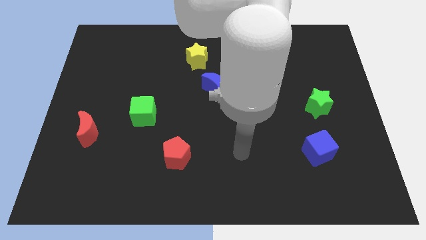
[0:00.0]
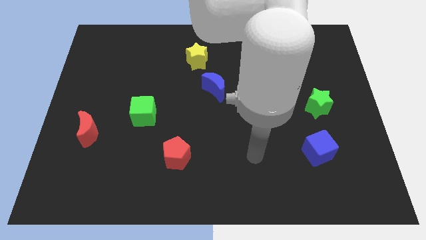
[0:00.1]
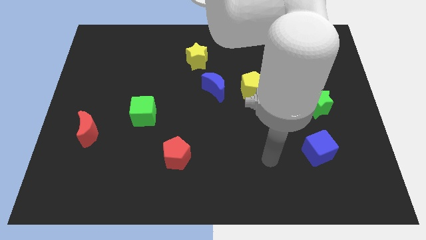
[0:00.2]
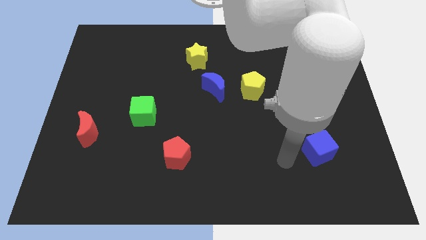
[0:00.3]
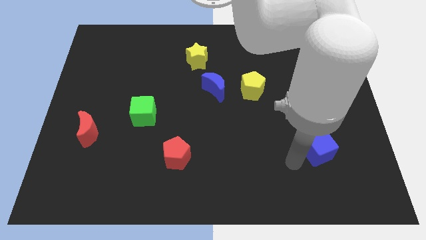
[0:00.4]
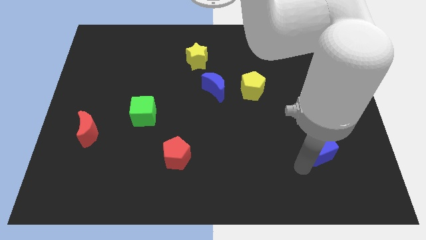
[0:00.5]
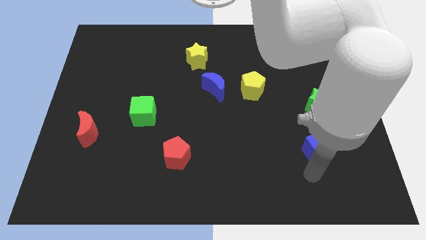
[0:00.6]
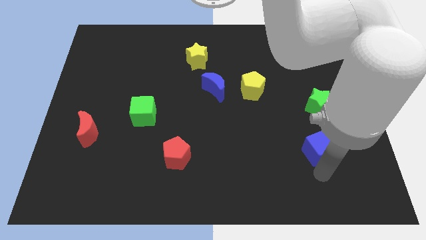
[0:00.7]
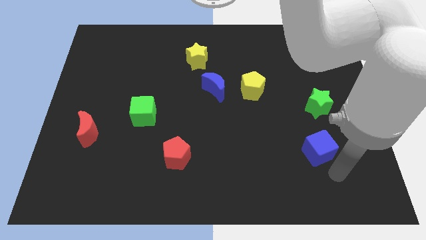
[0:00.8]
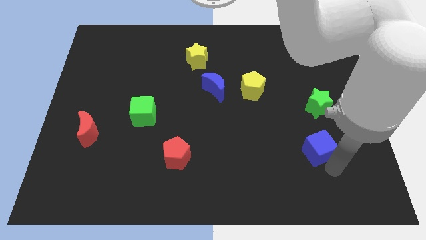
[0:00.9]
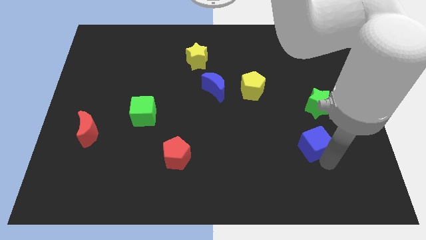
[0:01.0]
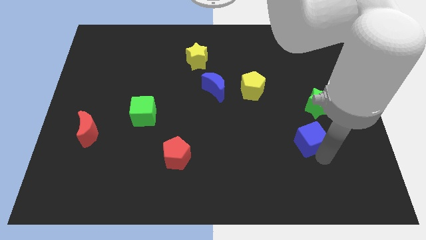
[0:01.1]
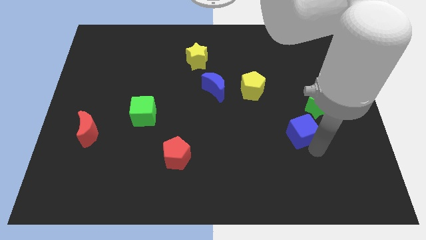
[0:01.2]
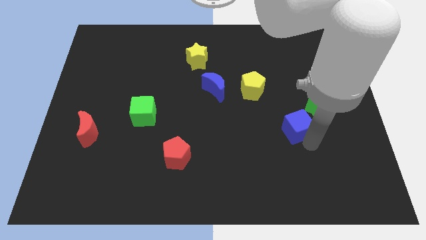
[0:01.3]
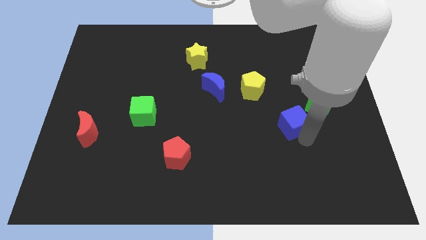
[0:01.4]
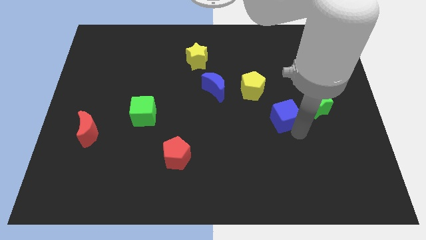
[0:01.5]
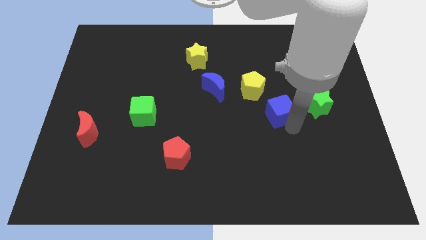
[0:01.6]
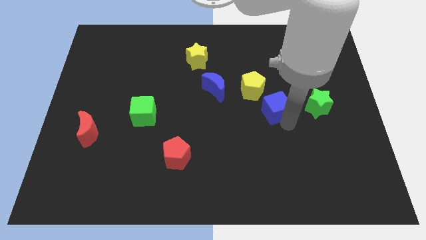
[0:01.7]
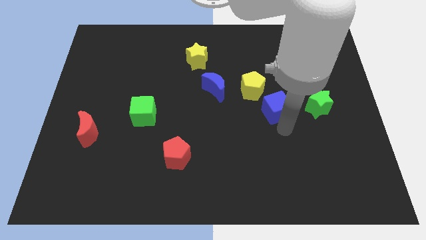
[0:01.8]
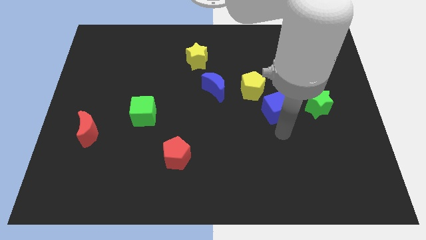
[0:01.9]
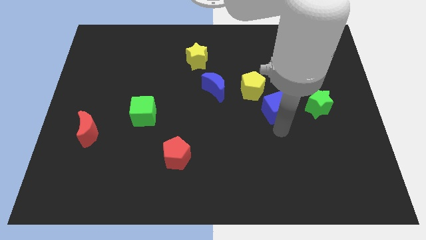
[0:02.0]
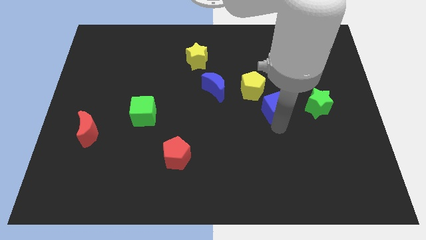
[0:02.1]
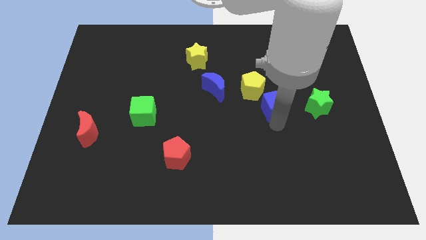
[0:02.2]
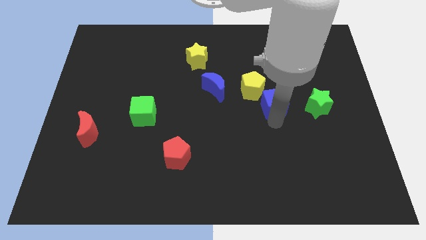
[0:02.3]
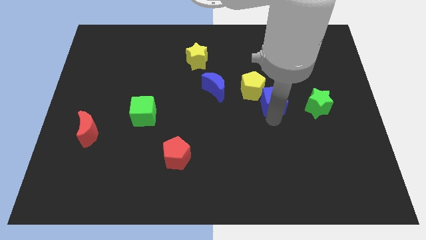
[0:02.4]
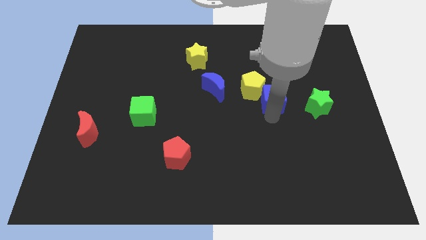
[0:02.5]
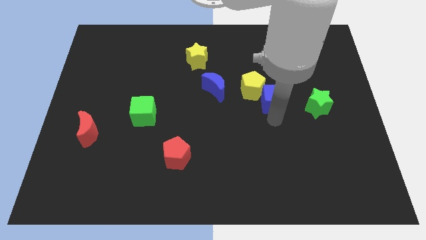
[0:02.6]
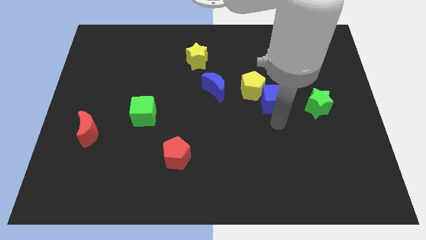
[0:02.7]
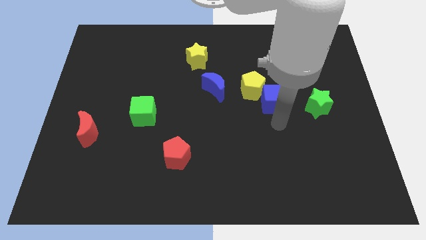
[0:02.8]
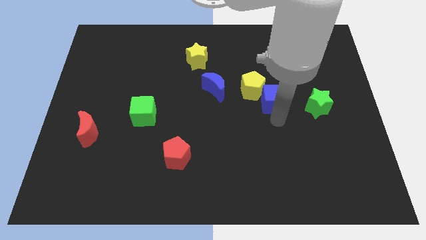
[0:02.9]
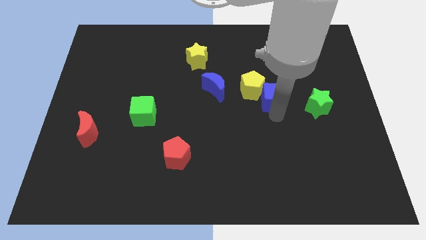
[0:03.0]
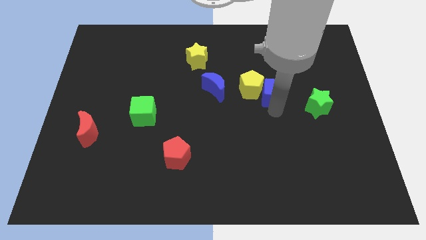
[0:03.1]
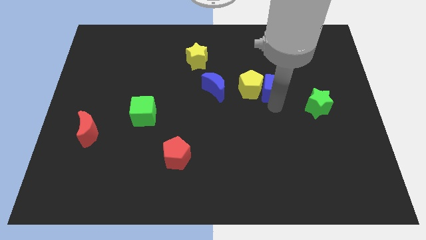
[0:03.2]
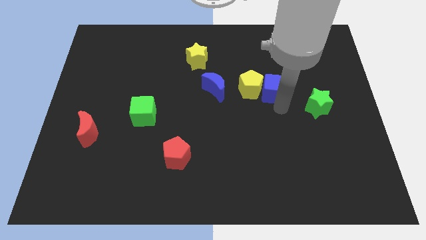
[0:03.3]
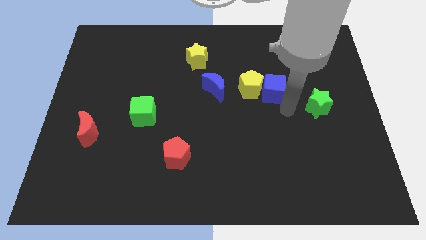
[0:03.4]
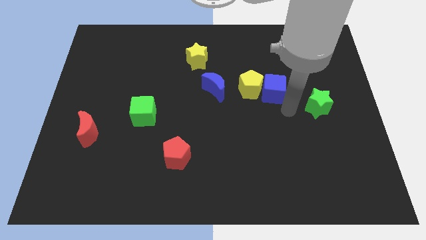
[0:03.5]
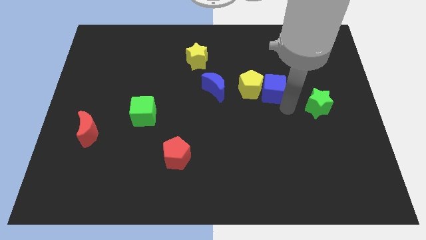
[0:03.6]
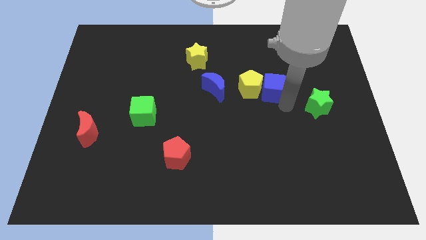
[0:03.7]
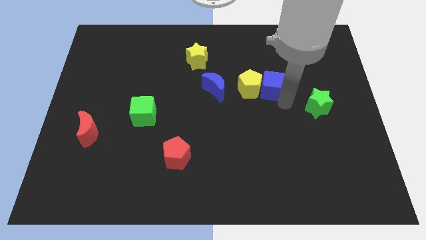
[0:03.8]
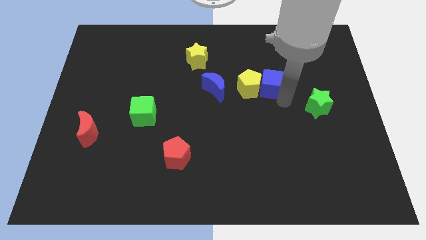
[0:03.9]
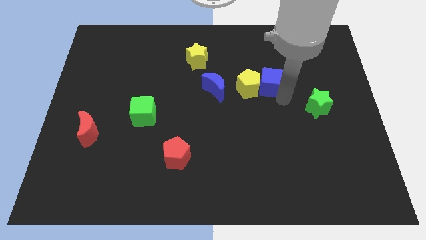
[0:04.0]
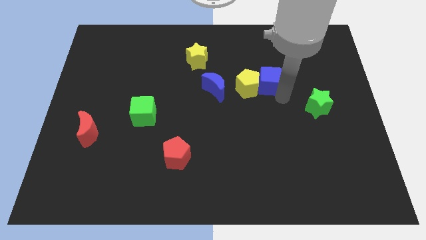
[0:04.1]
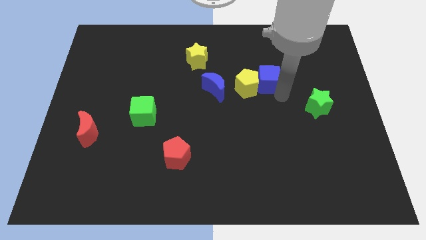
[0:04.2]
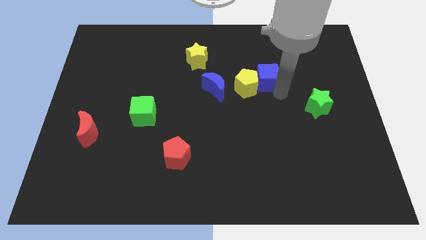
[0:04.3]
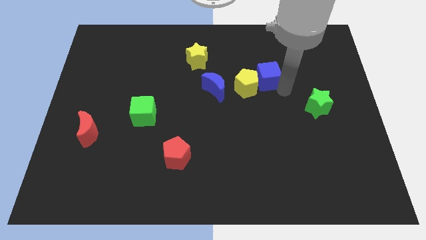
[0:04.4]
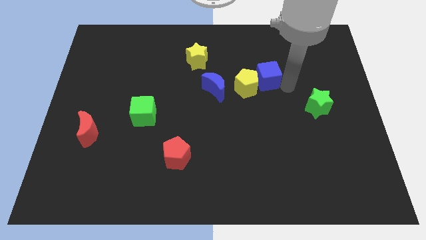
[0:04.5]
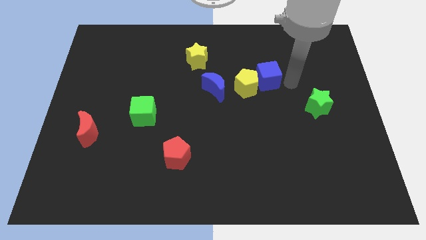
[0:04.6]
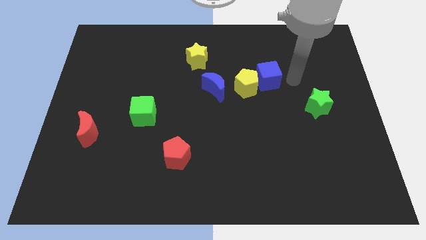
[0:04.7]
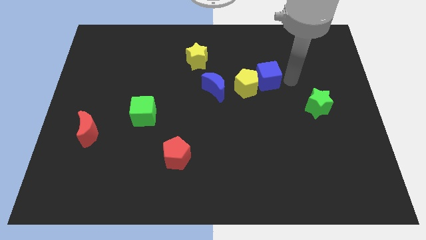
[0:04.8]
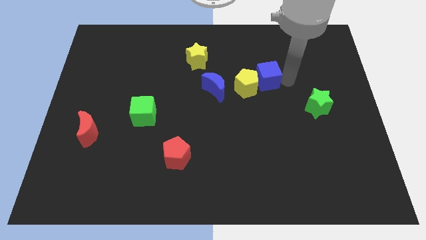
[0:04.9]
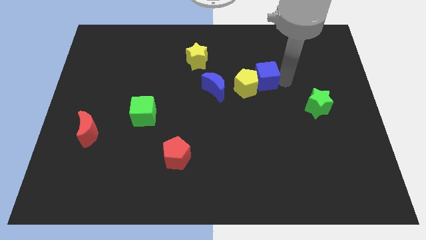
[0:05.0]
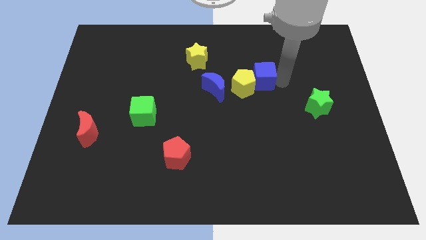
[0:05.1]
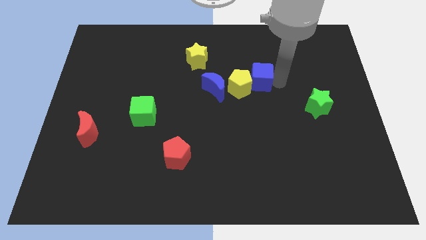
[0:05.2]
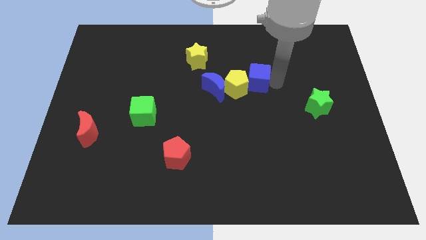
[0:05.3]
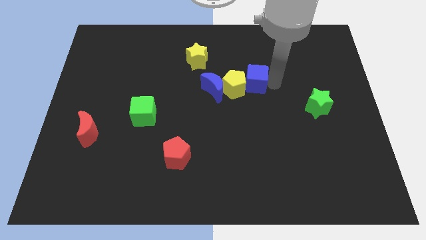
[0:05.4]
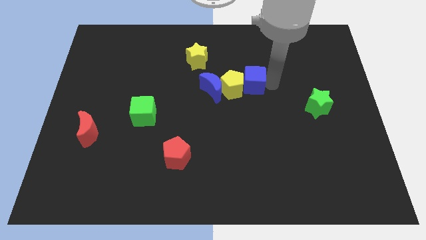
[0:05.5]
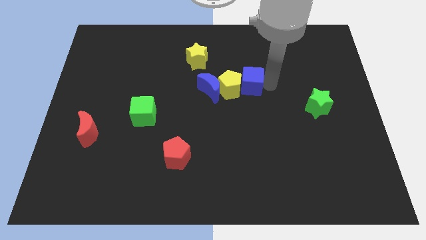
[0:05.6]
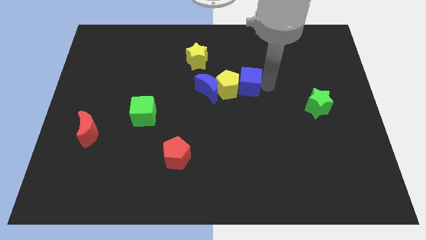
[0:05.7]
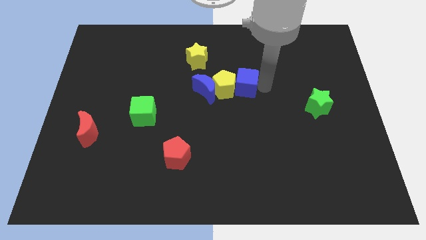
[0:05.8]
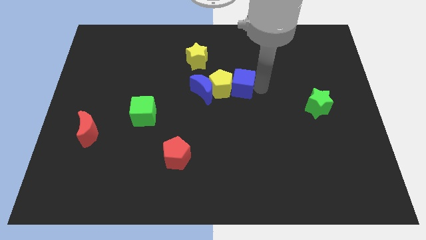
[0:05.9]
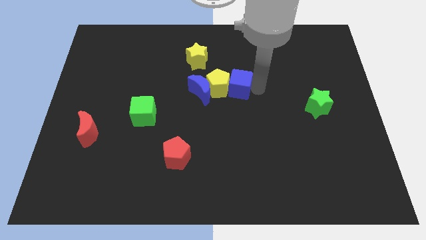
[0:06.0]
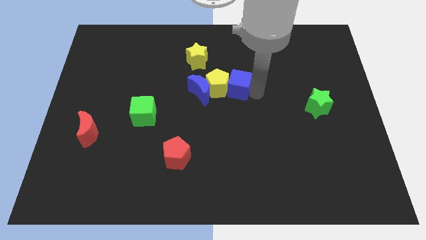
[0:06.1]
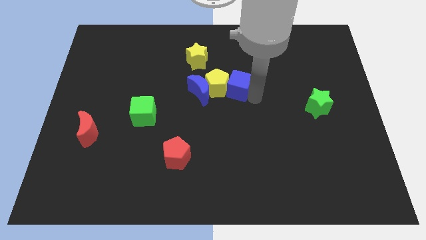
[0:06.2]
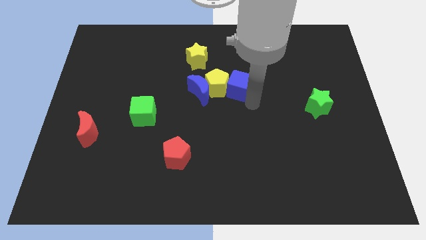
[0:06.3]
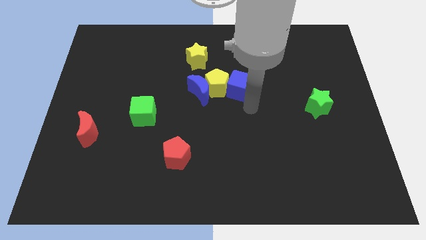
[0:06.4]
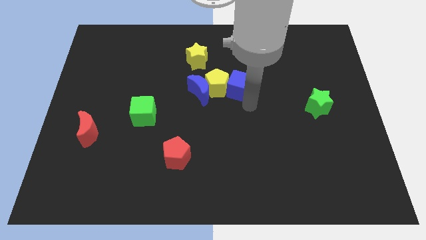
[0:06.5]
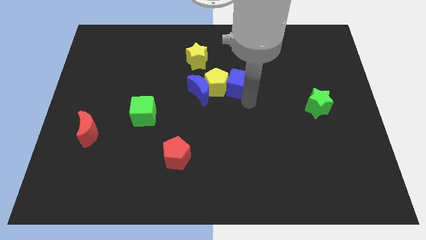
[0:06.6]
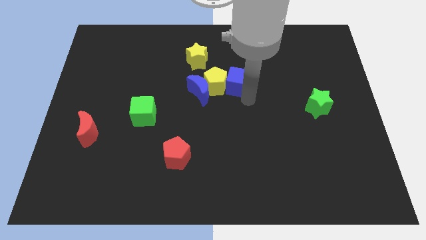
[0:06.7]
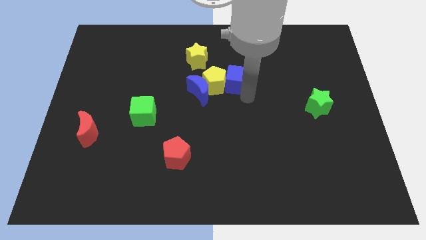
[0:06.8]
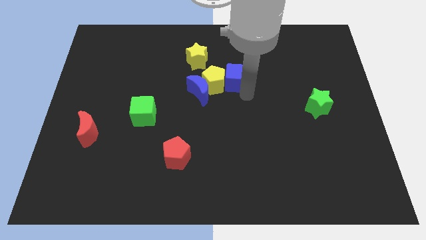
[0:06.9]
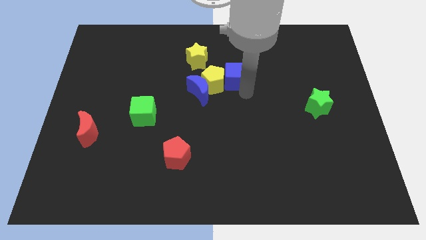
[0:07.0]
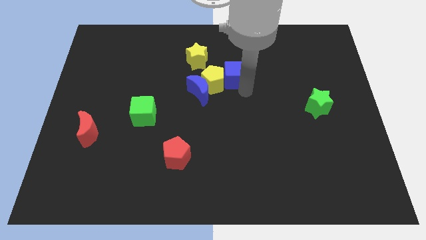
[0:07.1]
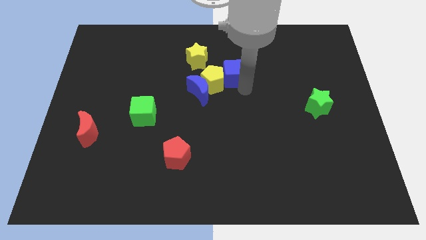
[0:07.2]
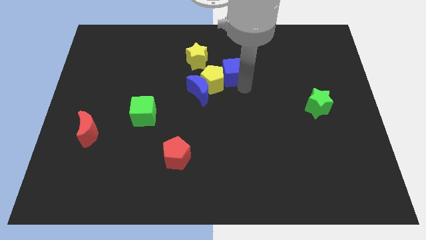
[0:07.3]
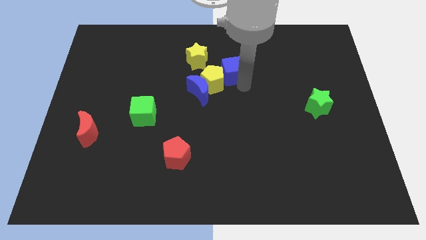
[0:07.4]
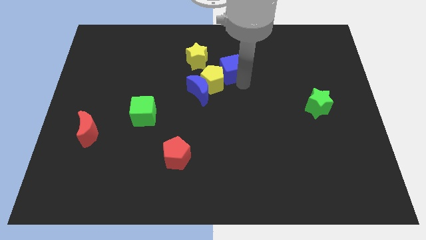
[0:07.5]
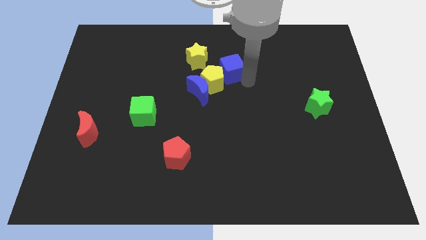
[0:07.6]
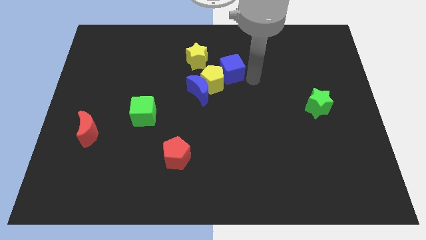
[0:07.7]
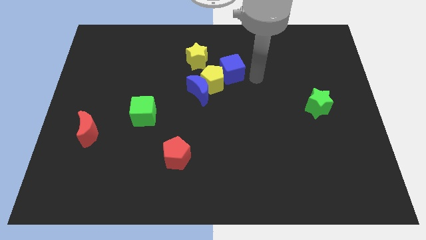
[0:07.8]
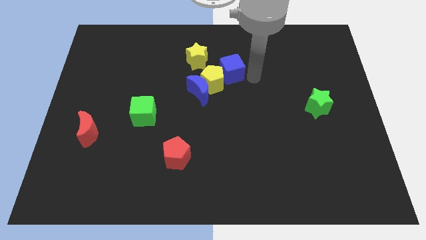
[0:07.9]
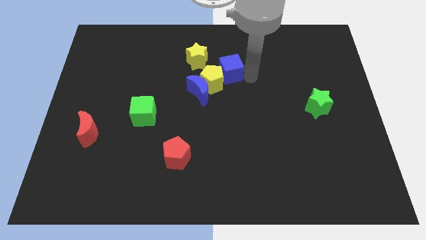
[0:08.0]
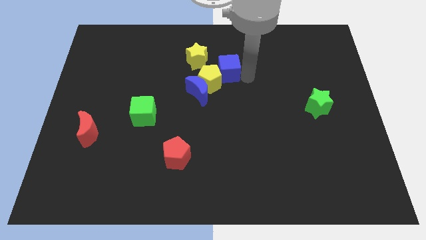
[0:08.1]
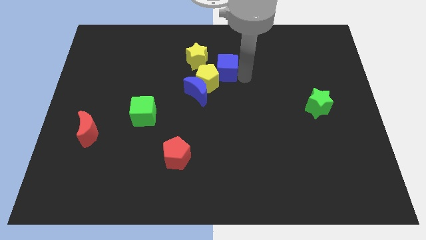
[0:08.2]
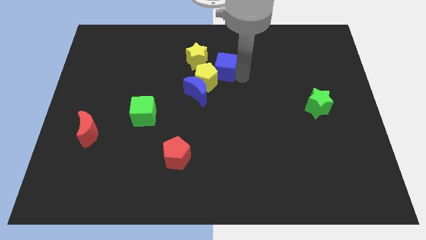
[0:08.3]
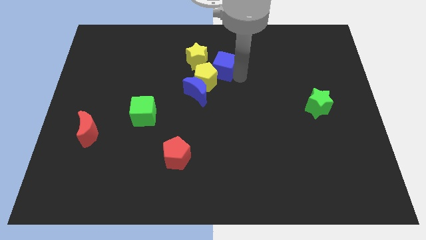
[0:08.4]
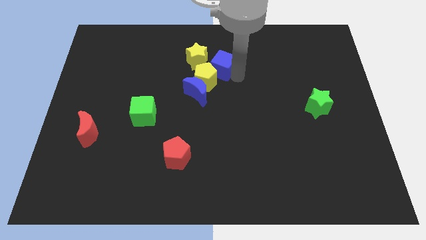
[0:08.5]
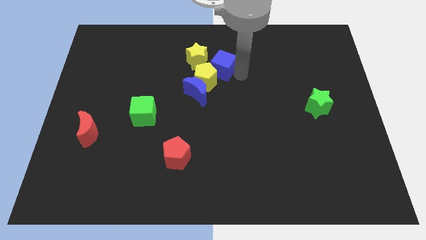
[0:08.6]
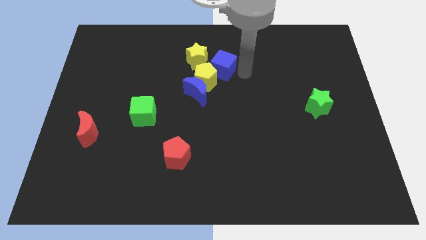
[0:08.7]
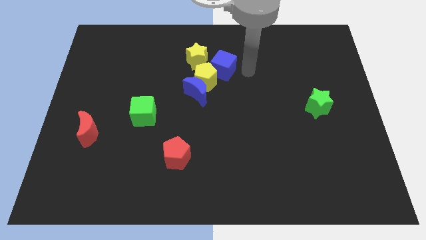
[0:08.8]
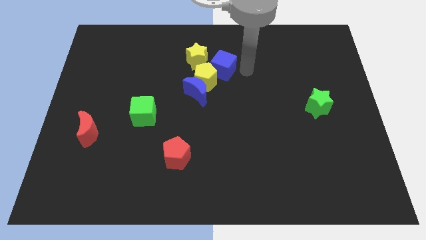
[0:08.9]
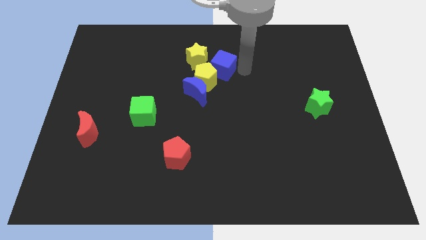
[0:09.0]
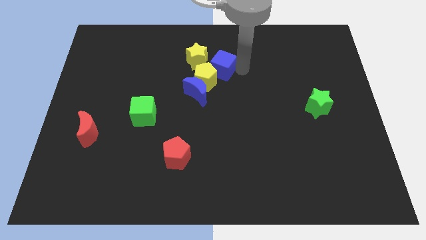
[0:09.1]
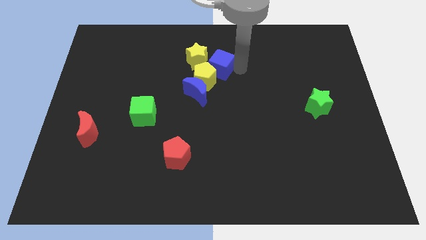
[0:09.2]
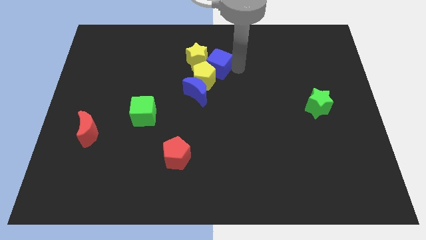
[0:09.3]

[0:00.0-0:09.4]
move the blue cube close to the yellow star
